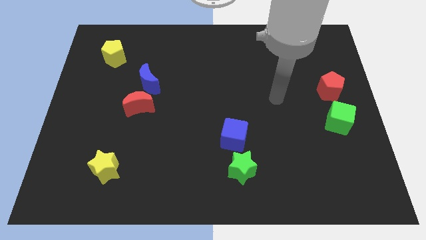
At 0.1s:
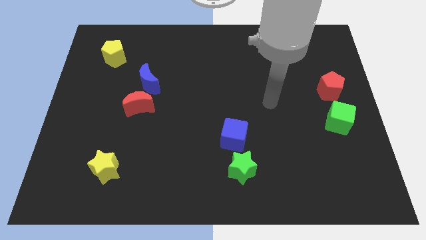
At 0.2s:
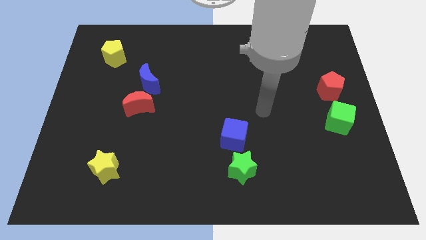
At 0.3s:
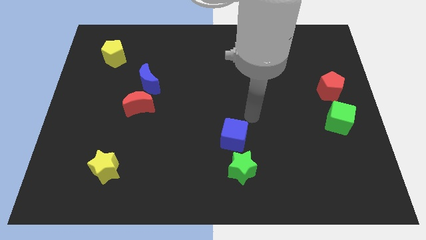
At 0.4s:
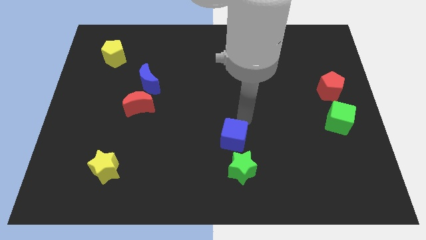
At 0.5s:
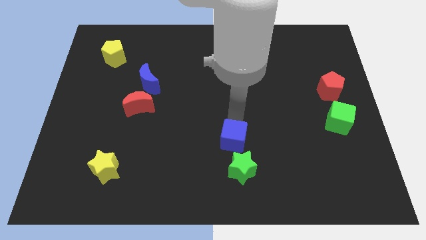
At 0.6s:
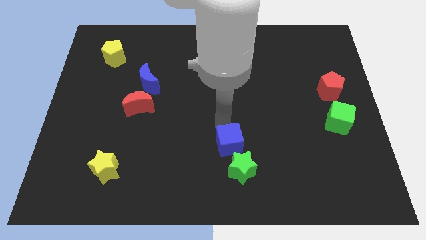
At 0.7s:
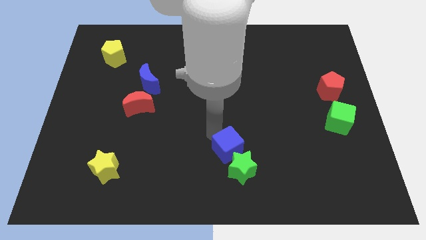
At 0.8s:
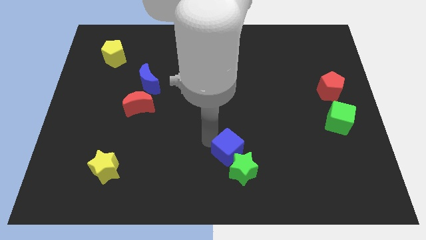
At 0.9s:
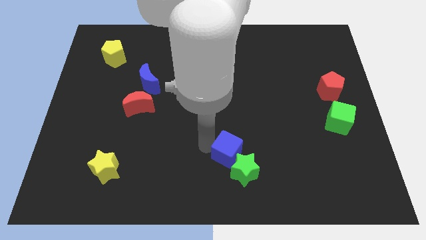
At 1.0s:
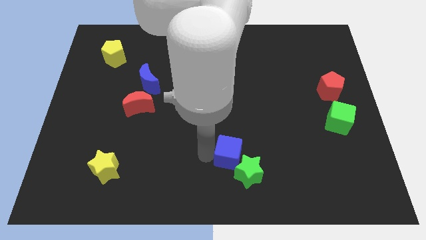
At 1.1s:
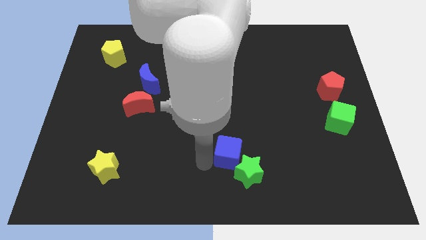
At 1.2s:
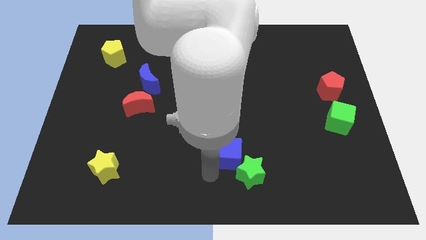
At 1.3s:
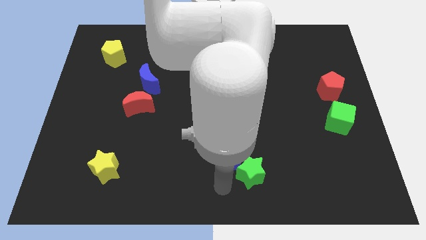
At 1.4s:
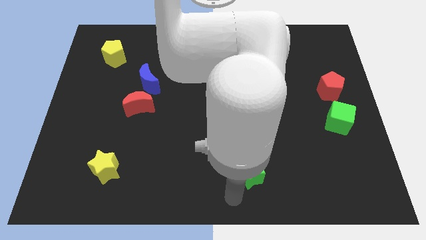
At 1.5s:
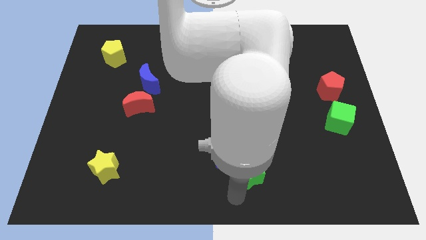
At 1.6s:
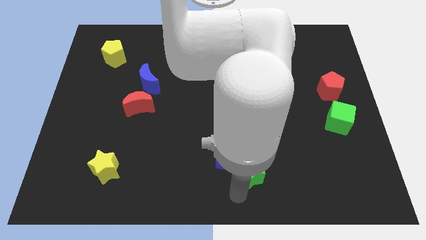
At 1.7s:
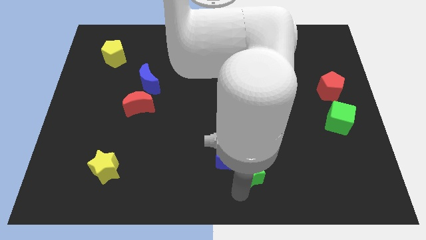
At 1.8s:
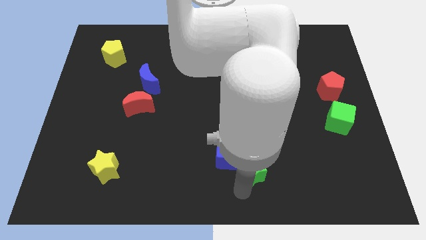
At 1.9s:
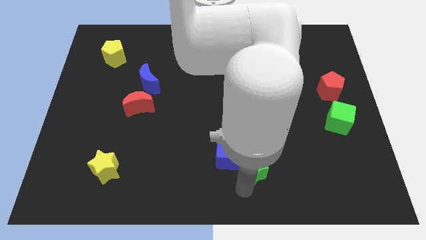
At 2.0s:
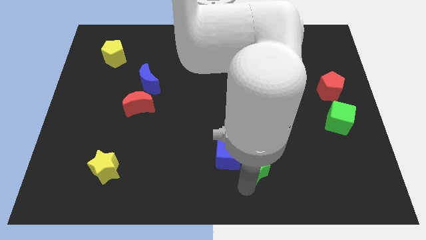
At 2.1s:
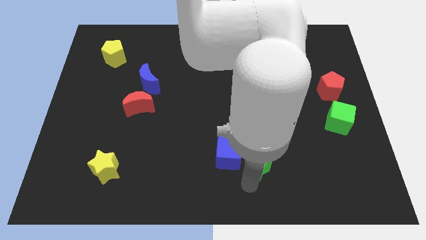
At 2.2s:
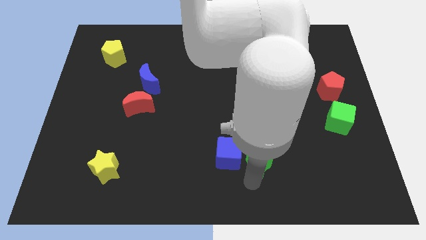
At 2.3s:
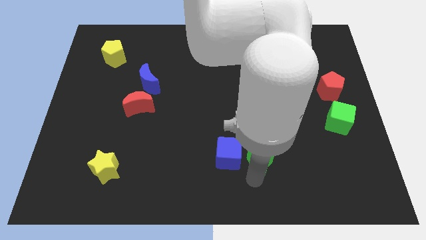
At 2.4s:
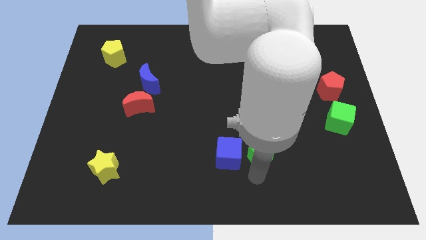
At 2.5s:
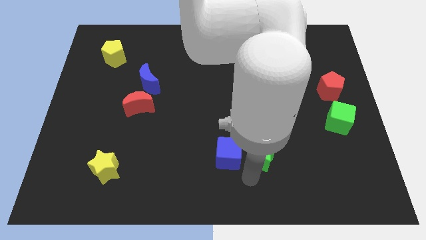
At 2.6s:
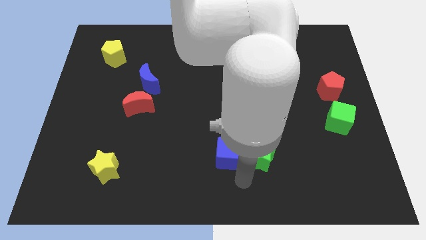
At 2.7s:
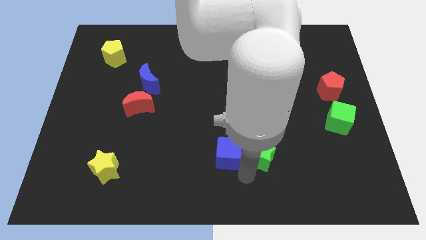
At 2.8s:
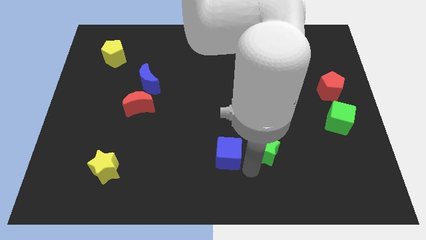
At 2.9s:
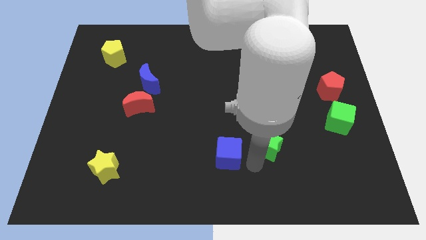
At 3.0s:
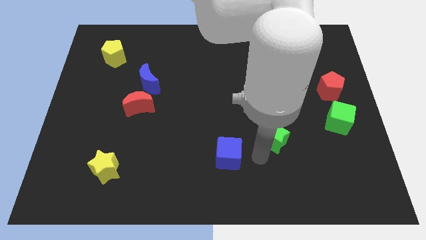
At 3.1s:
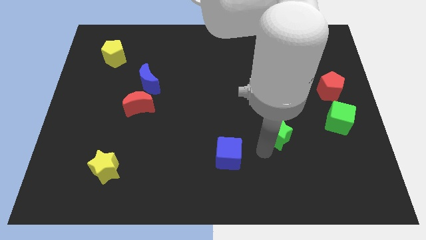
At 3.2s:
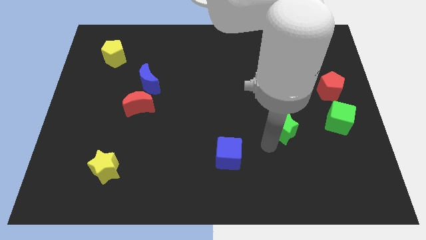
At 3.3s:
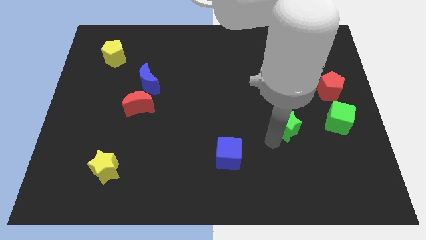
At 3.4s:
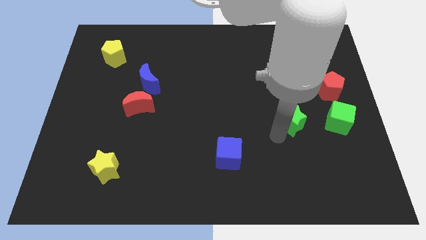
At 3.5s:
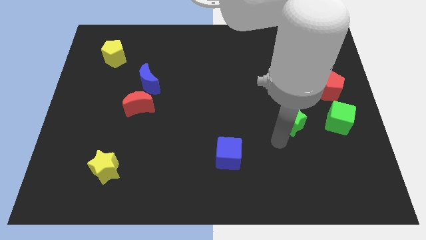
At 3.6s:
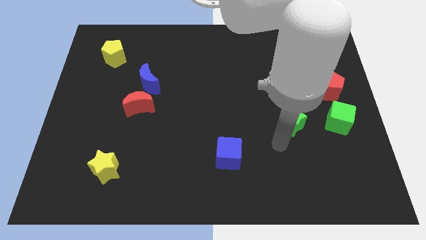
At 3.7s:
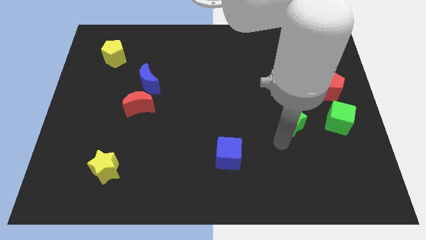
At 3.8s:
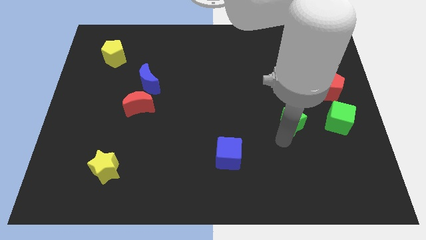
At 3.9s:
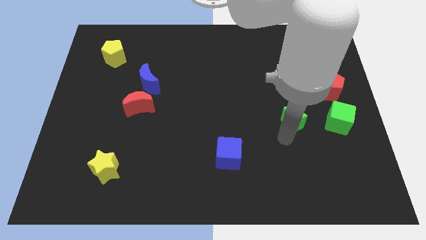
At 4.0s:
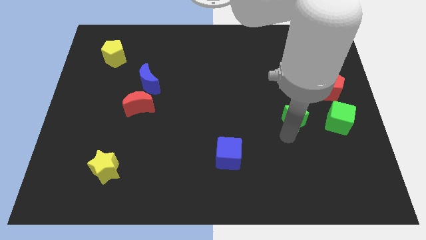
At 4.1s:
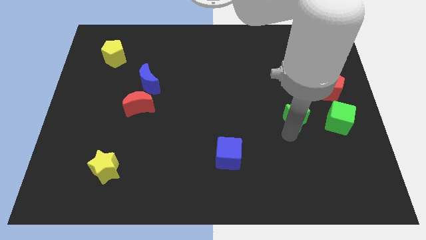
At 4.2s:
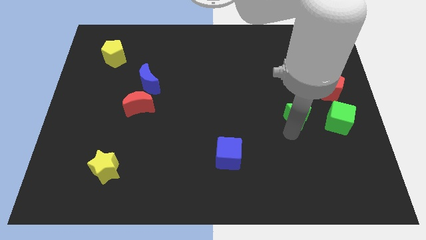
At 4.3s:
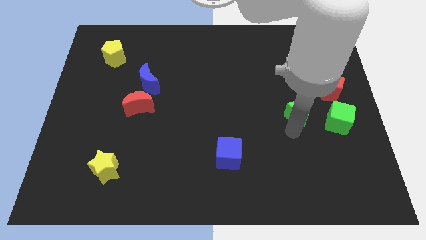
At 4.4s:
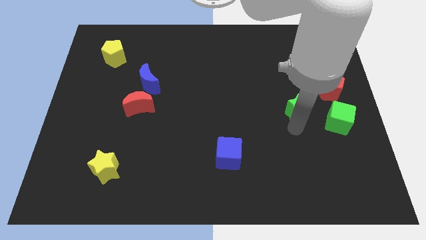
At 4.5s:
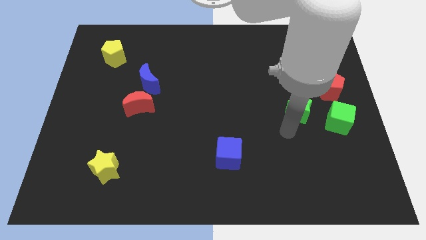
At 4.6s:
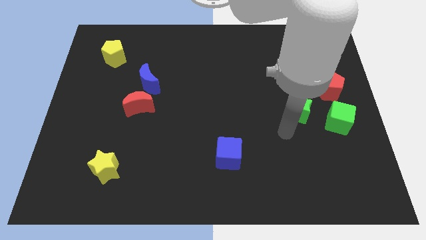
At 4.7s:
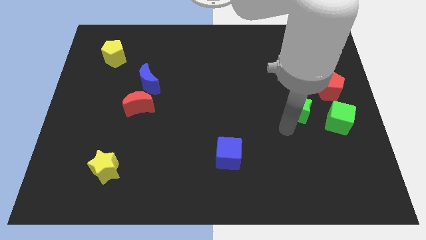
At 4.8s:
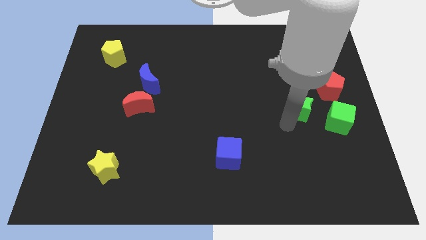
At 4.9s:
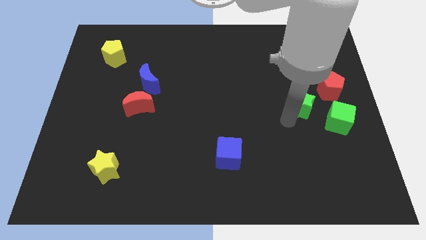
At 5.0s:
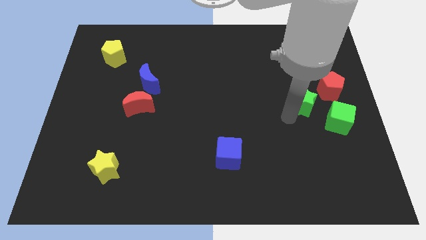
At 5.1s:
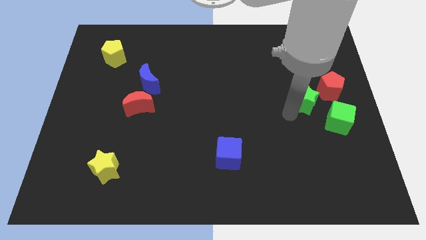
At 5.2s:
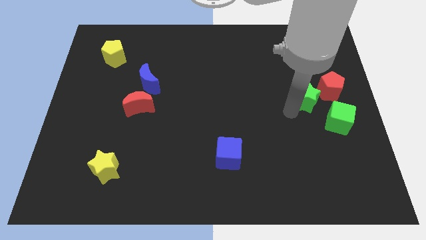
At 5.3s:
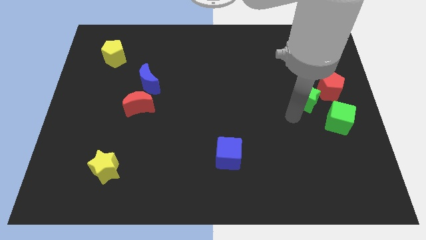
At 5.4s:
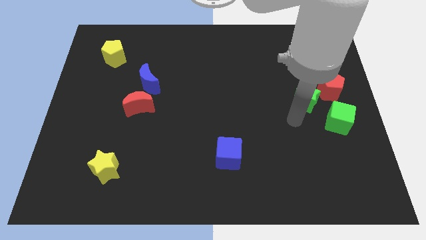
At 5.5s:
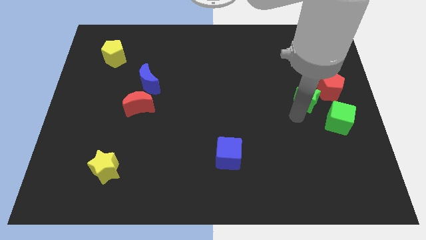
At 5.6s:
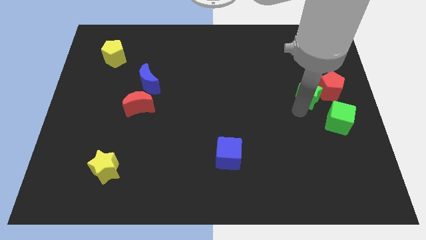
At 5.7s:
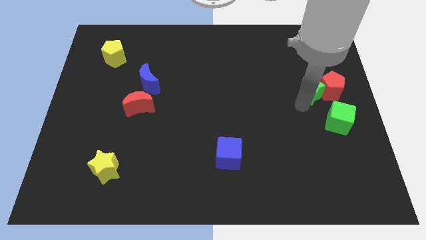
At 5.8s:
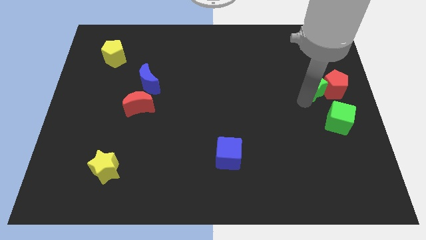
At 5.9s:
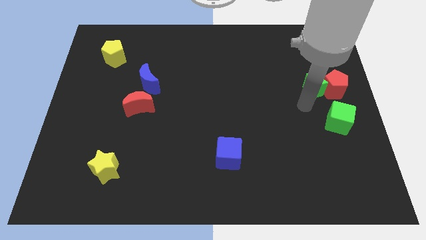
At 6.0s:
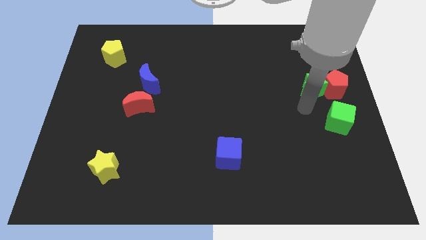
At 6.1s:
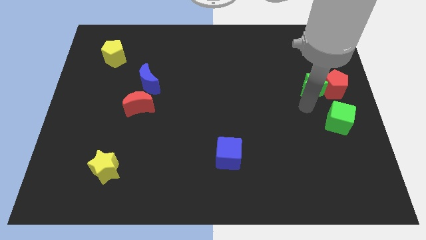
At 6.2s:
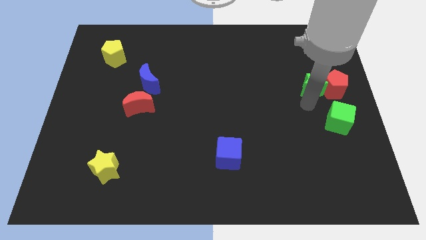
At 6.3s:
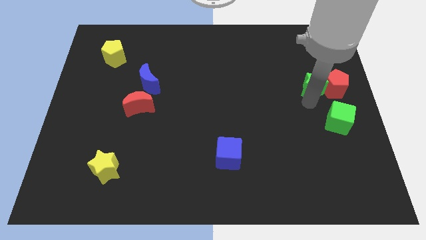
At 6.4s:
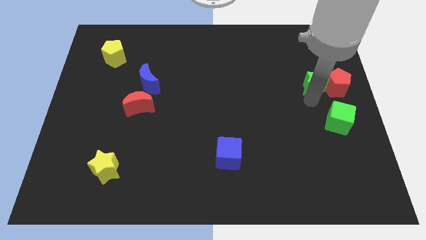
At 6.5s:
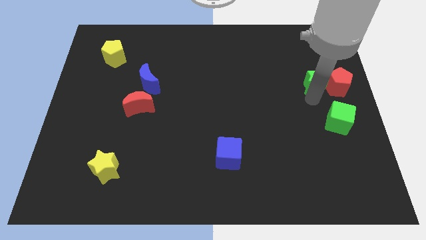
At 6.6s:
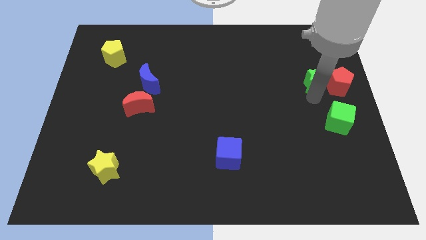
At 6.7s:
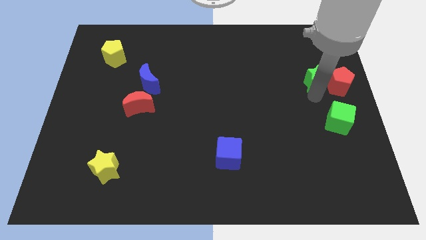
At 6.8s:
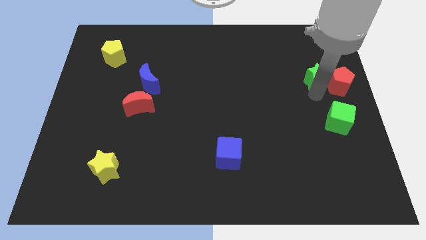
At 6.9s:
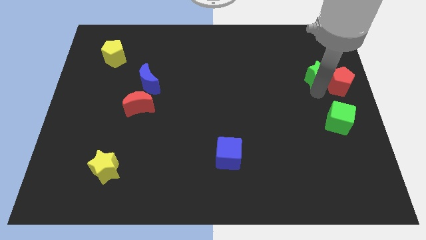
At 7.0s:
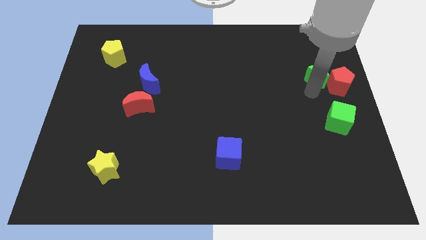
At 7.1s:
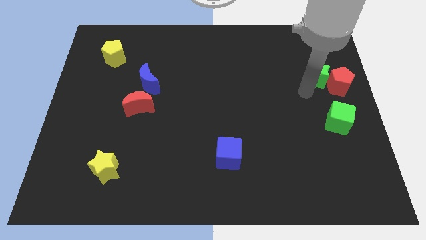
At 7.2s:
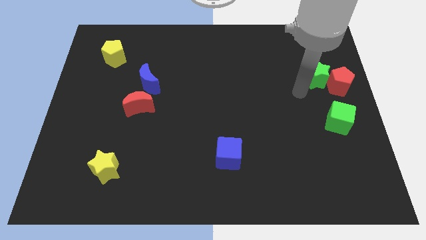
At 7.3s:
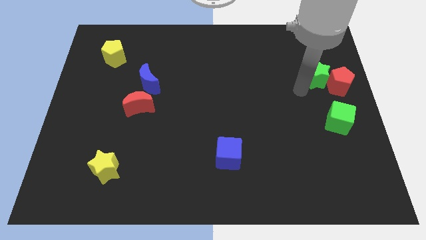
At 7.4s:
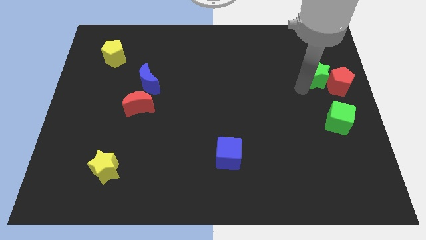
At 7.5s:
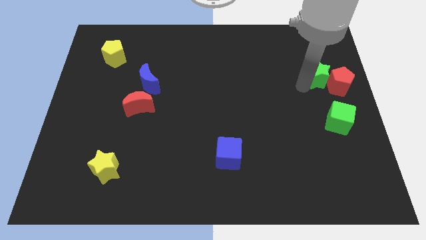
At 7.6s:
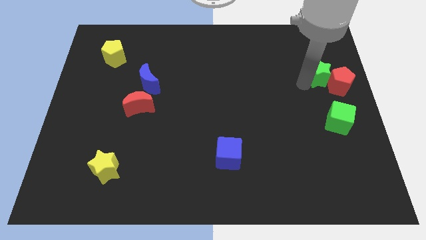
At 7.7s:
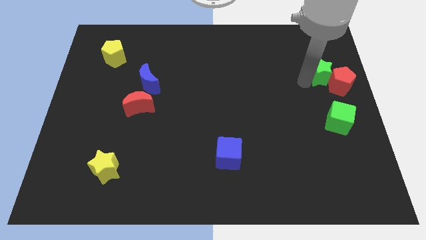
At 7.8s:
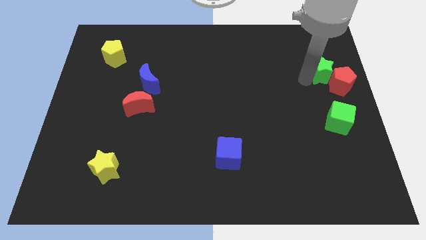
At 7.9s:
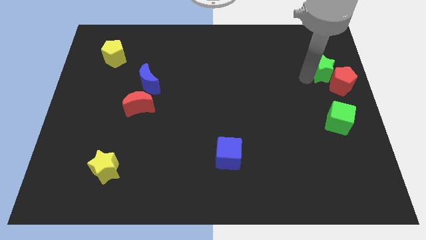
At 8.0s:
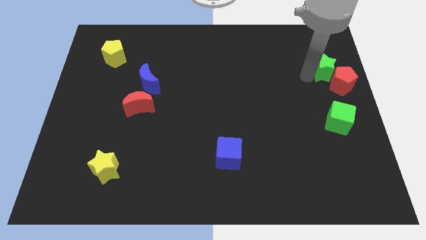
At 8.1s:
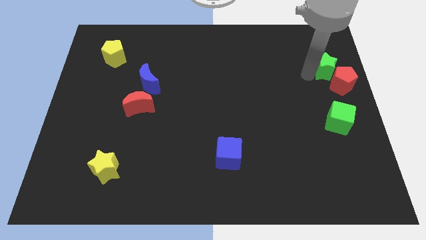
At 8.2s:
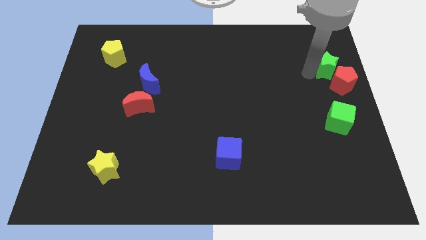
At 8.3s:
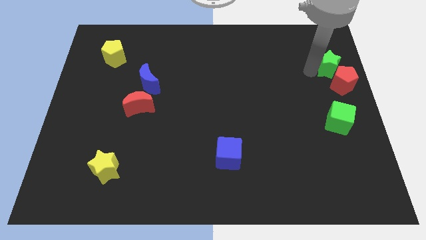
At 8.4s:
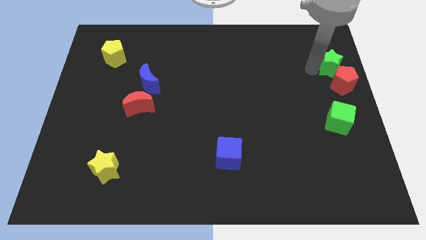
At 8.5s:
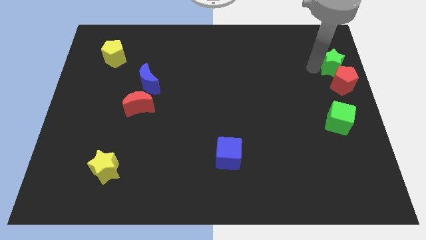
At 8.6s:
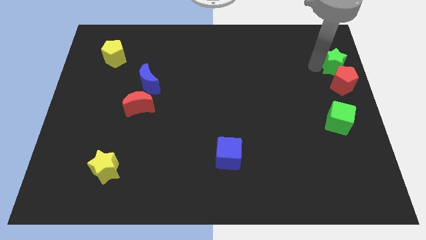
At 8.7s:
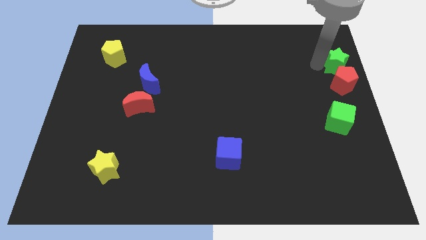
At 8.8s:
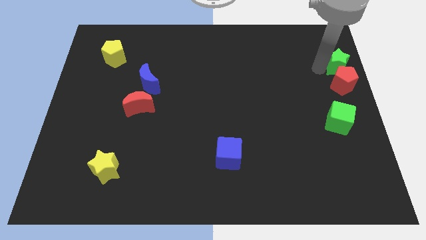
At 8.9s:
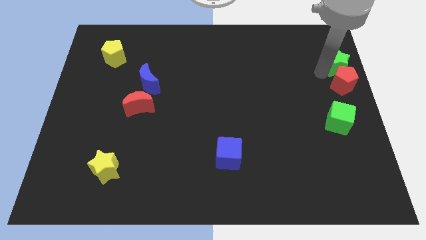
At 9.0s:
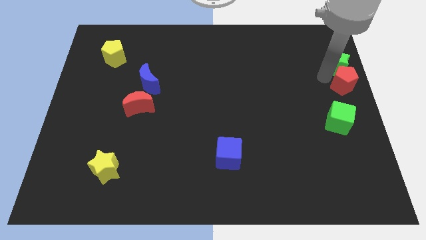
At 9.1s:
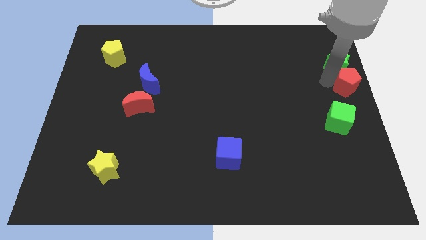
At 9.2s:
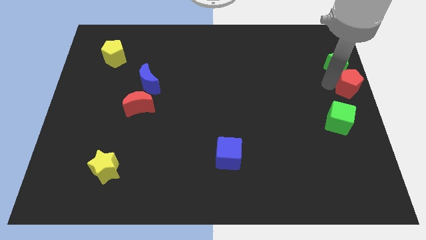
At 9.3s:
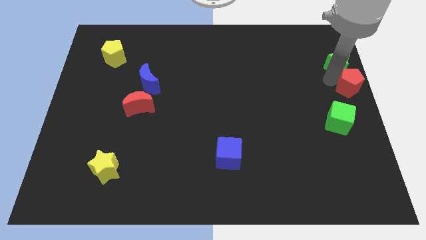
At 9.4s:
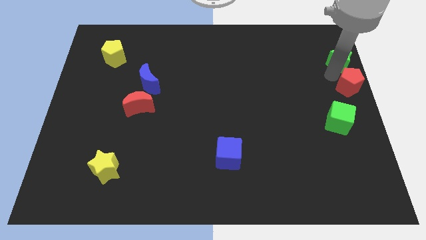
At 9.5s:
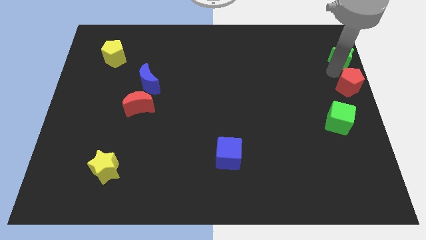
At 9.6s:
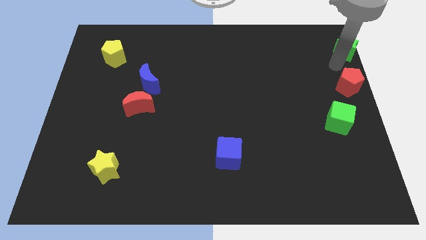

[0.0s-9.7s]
put the green star to the top right corner
